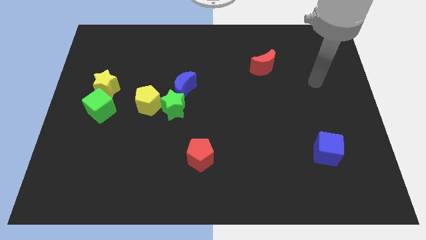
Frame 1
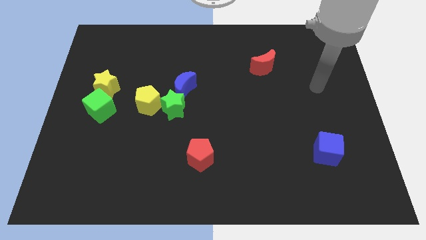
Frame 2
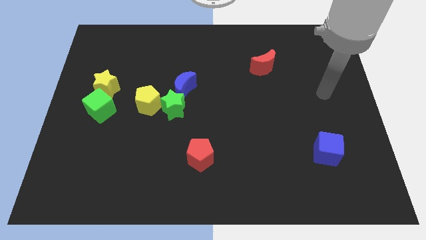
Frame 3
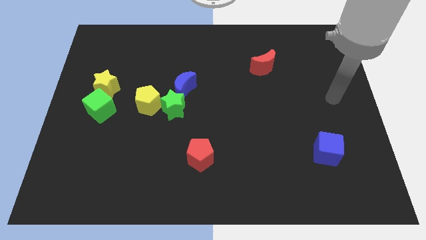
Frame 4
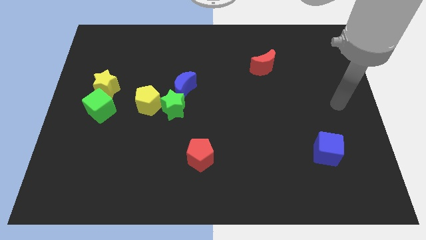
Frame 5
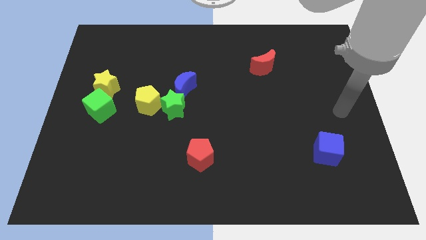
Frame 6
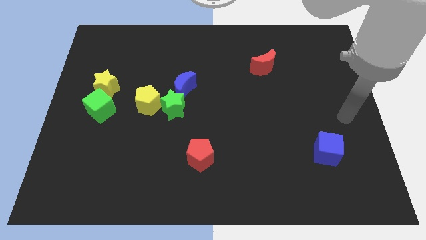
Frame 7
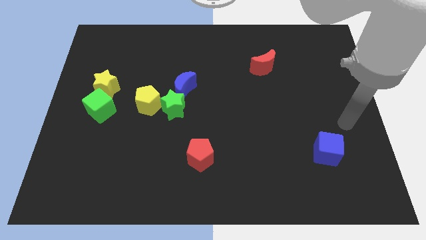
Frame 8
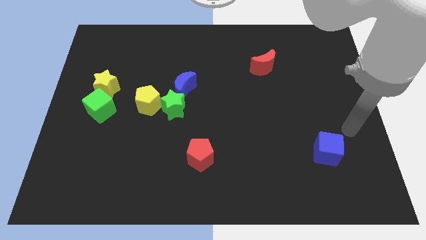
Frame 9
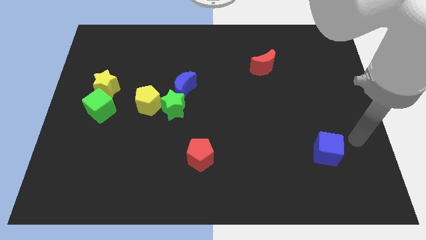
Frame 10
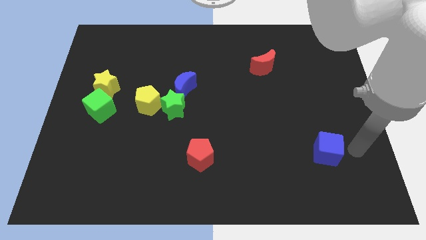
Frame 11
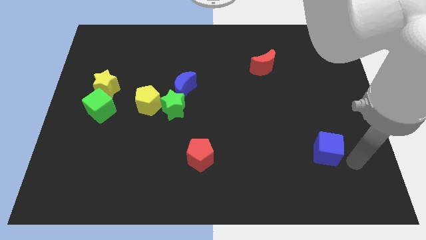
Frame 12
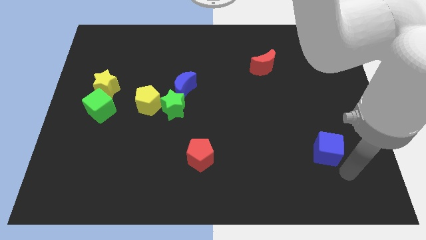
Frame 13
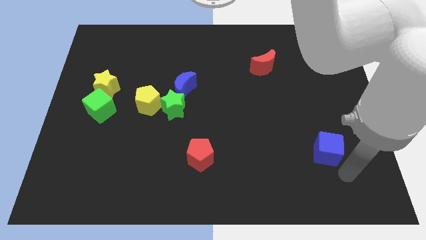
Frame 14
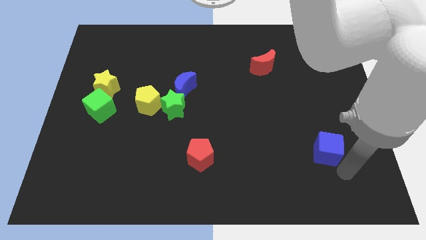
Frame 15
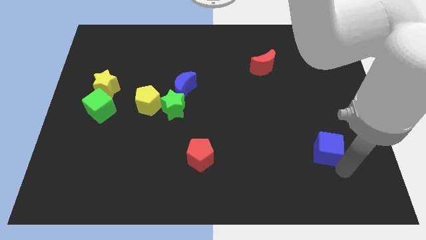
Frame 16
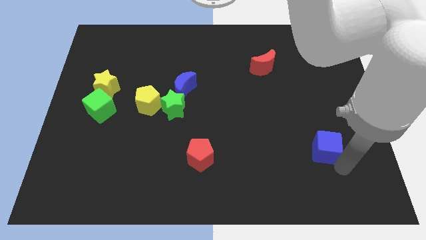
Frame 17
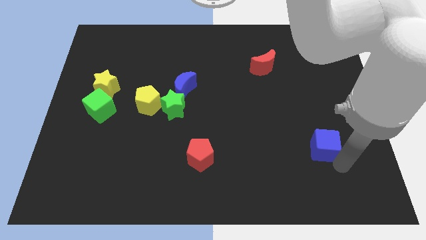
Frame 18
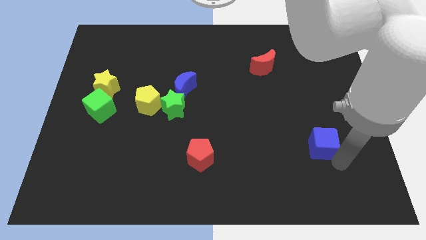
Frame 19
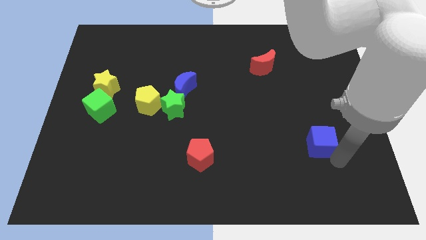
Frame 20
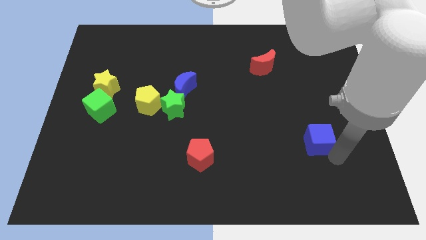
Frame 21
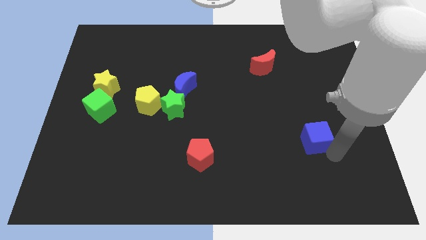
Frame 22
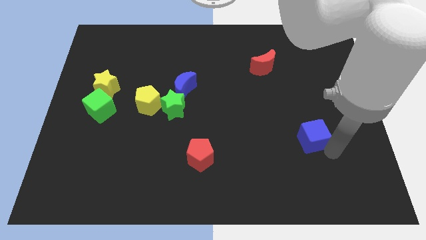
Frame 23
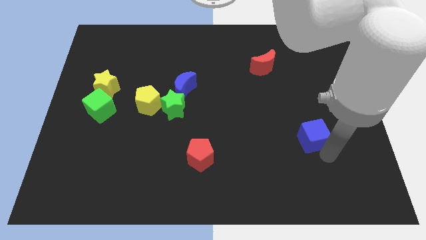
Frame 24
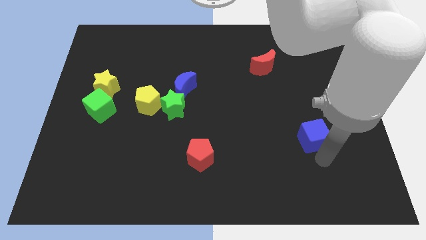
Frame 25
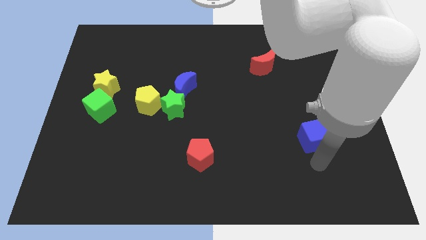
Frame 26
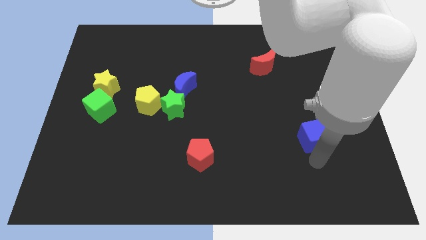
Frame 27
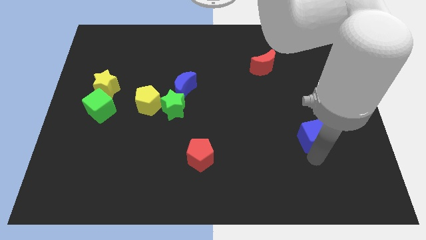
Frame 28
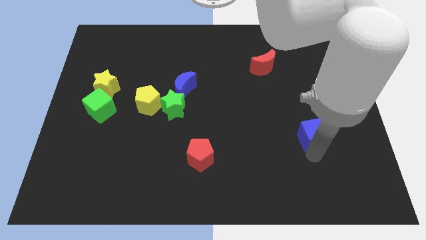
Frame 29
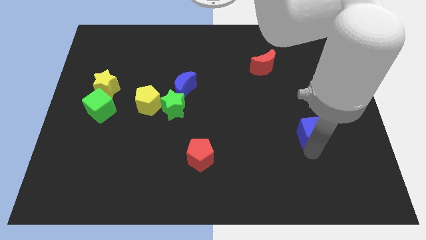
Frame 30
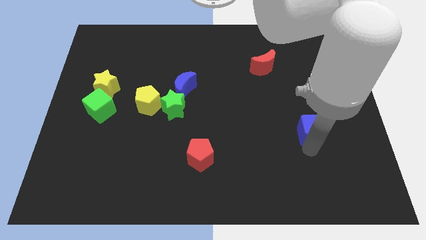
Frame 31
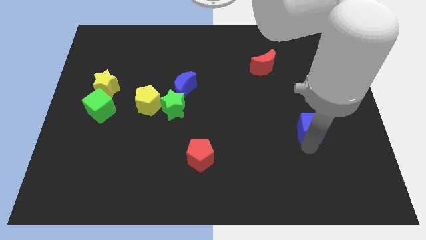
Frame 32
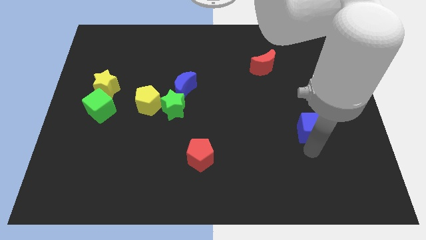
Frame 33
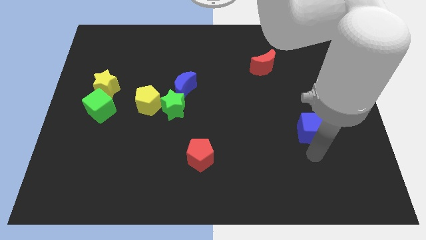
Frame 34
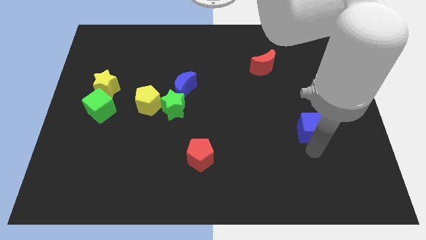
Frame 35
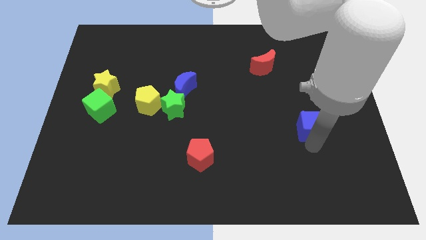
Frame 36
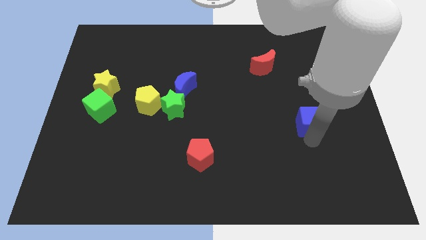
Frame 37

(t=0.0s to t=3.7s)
move the blue cube upwards slightly

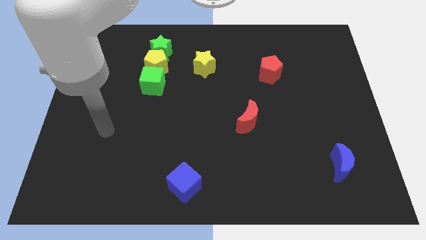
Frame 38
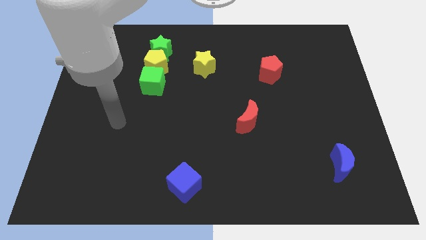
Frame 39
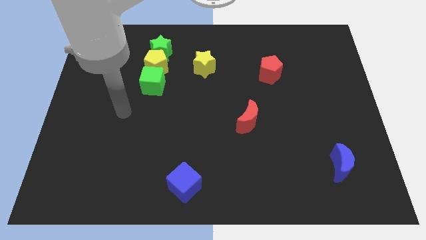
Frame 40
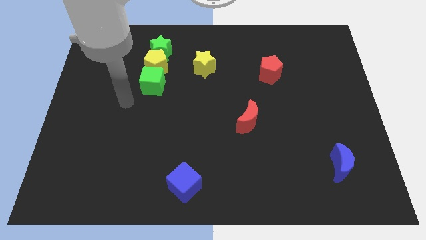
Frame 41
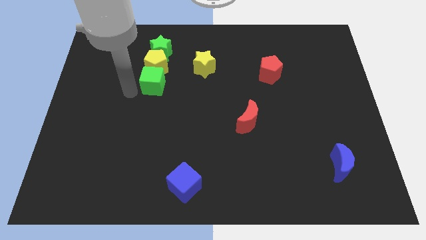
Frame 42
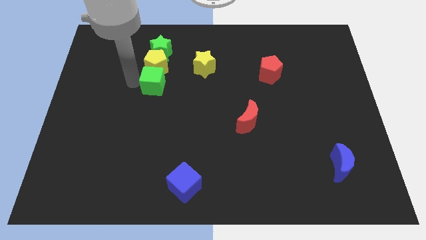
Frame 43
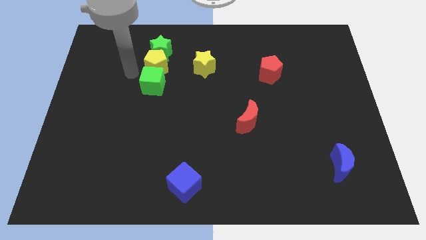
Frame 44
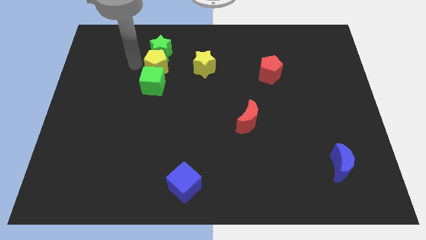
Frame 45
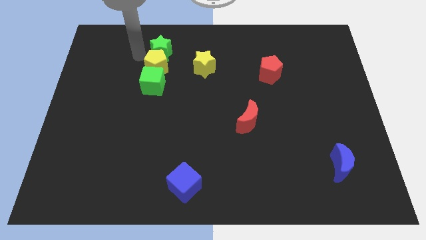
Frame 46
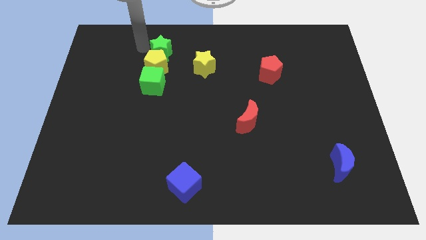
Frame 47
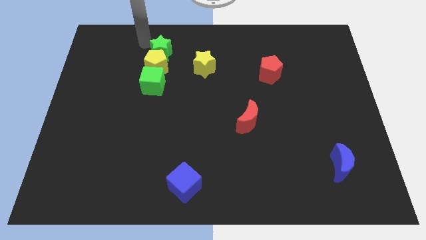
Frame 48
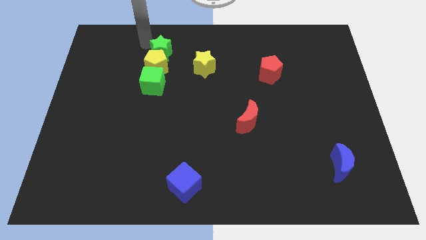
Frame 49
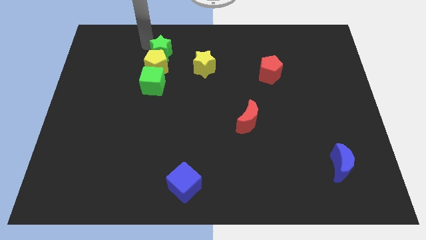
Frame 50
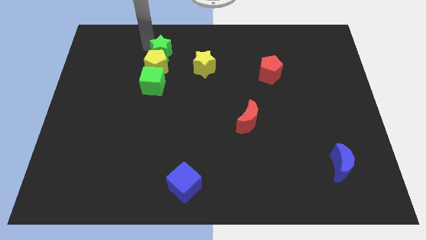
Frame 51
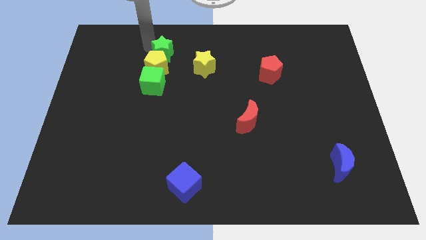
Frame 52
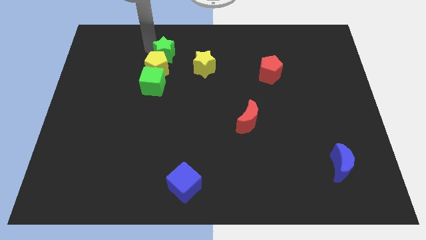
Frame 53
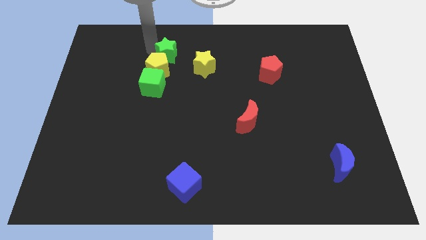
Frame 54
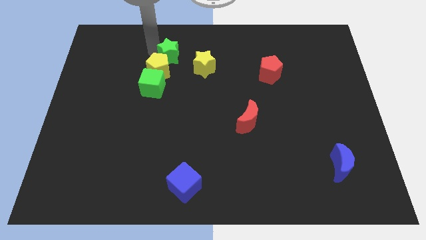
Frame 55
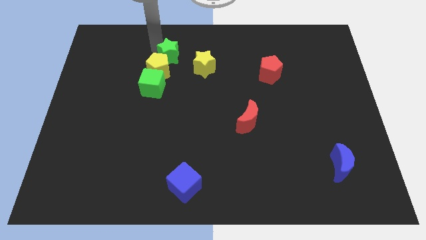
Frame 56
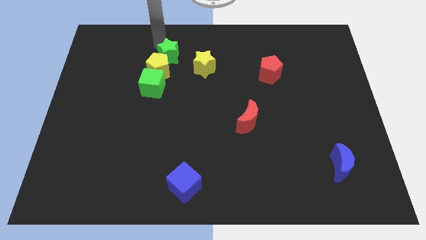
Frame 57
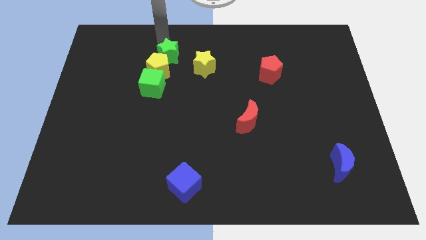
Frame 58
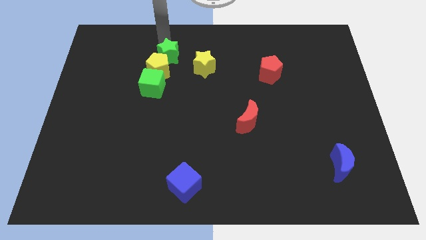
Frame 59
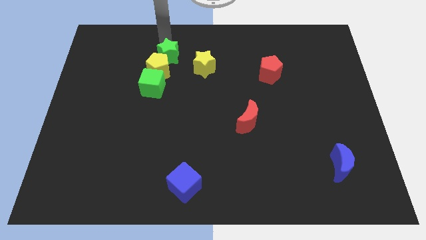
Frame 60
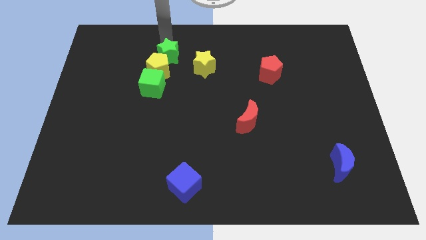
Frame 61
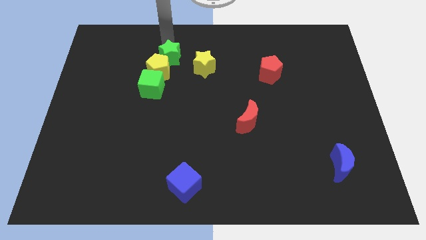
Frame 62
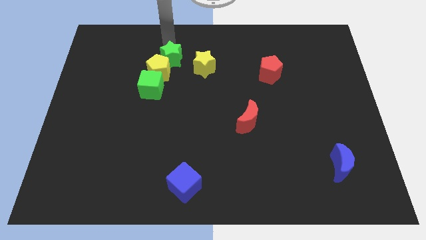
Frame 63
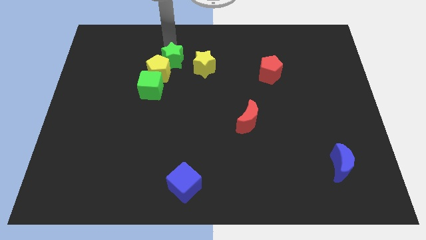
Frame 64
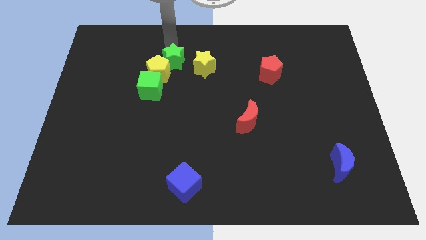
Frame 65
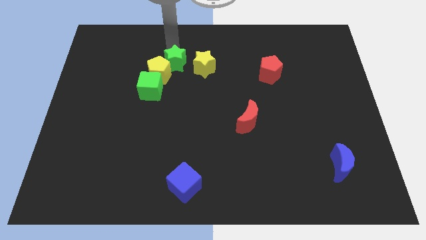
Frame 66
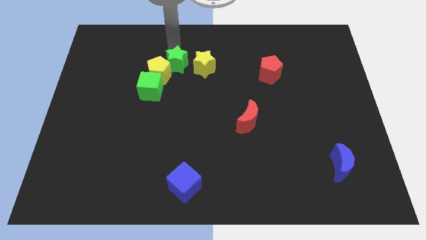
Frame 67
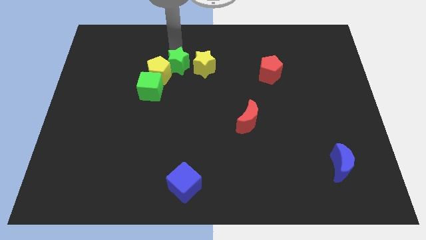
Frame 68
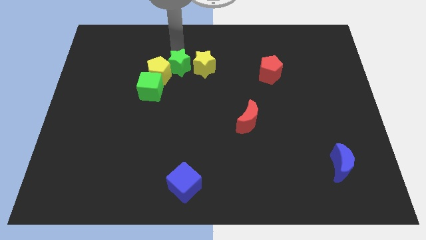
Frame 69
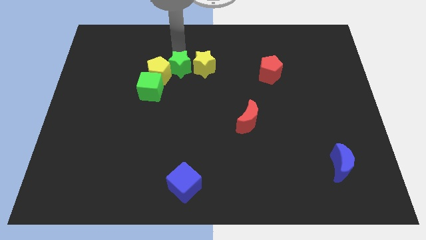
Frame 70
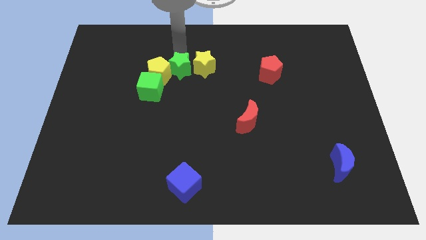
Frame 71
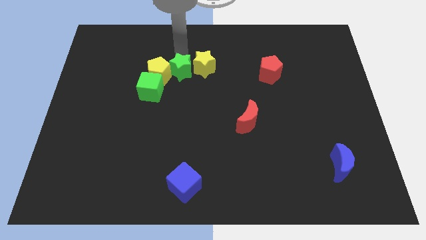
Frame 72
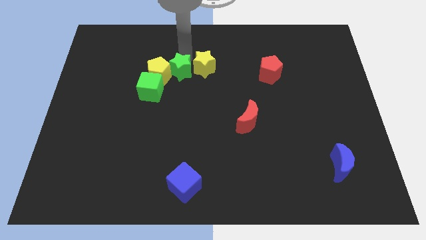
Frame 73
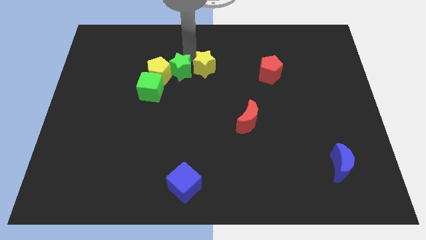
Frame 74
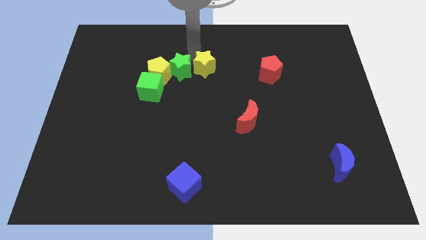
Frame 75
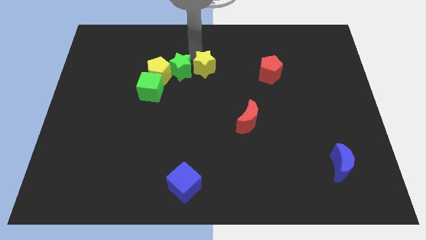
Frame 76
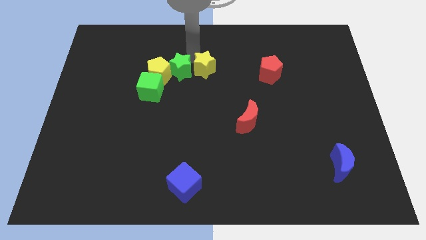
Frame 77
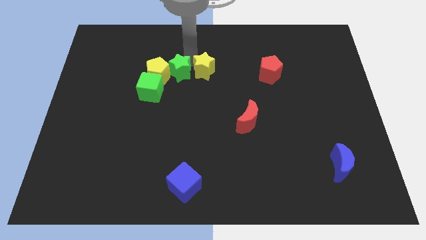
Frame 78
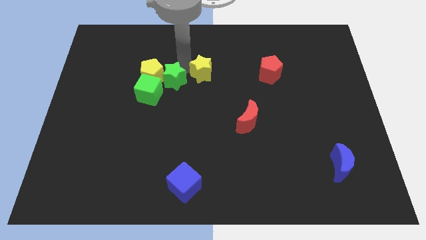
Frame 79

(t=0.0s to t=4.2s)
slide the green star somewhat down

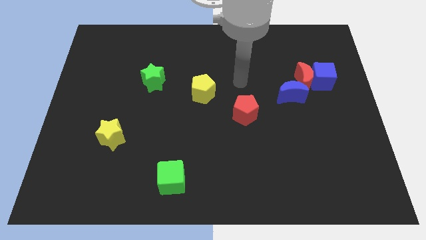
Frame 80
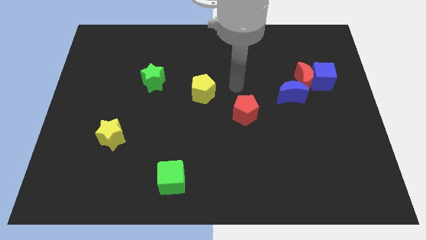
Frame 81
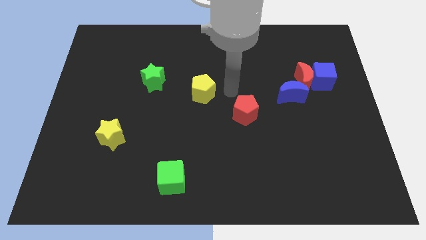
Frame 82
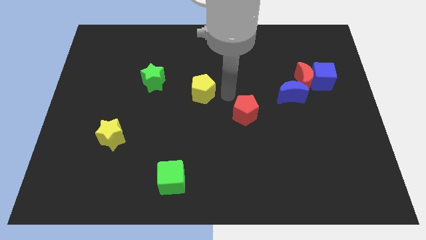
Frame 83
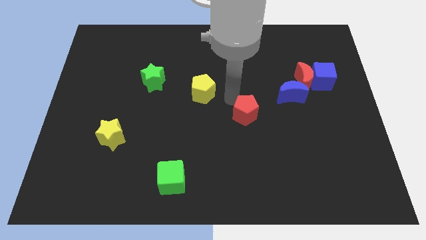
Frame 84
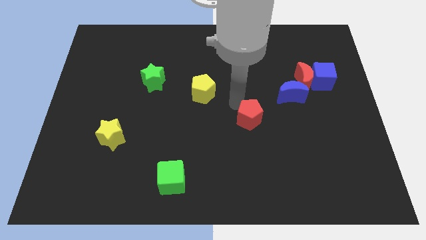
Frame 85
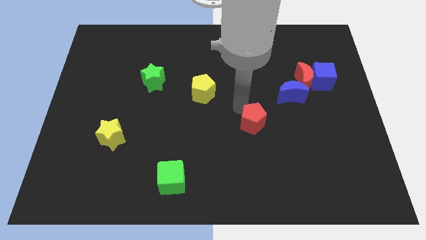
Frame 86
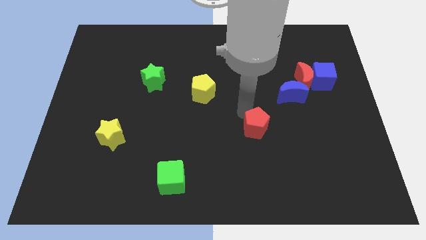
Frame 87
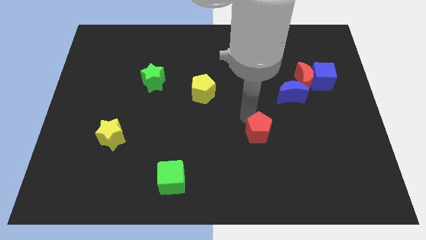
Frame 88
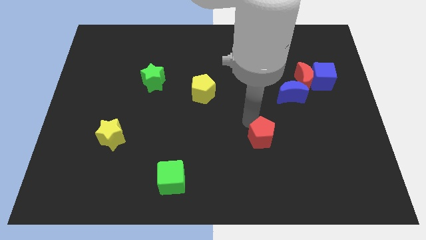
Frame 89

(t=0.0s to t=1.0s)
slide the red pentagon a little bit down and then to the right
